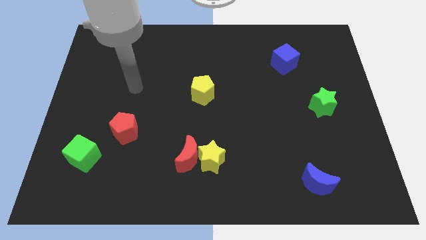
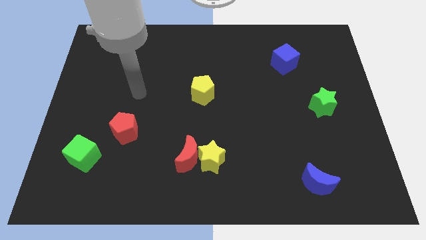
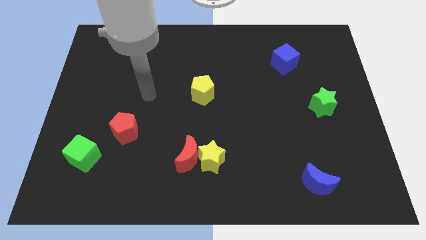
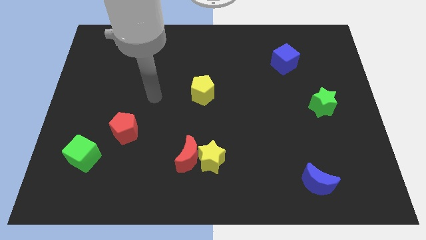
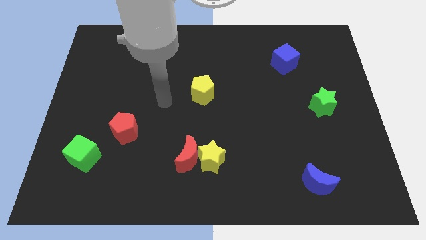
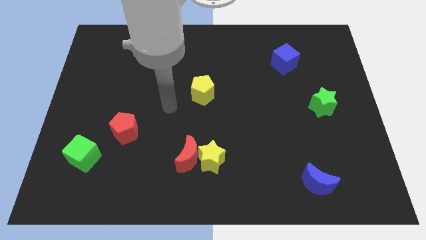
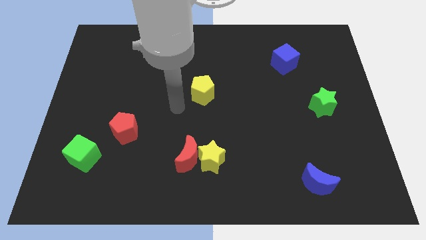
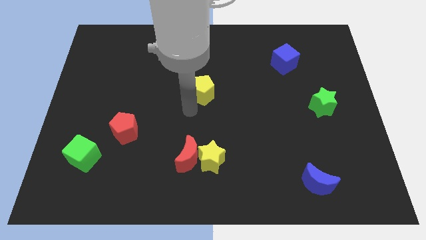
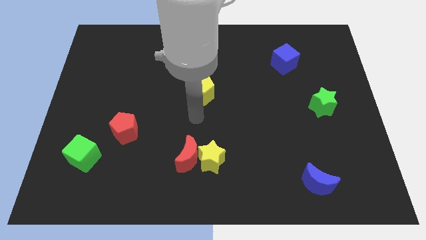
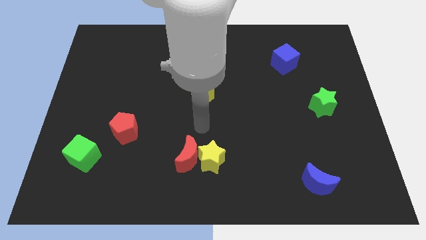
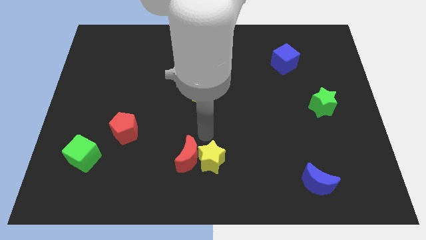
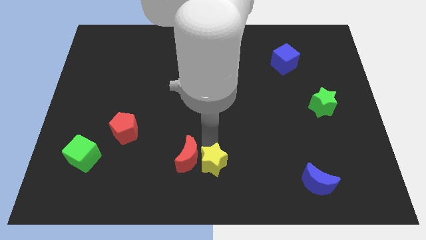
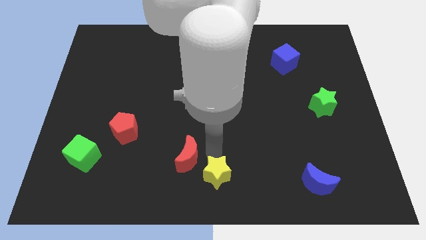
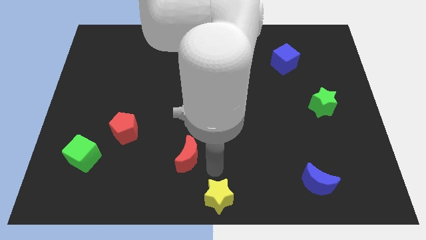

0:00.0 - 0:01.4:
separate the red moon from the yellow star

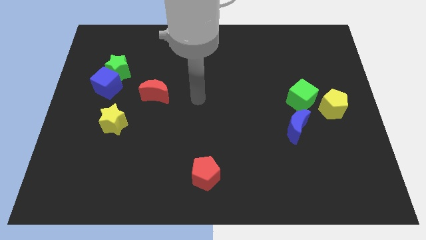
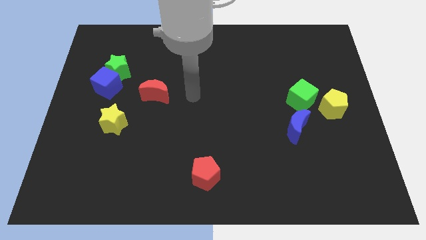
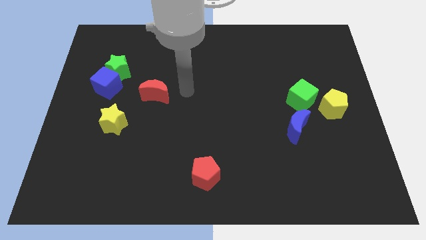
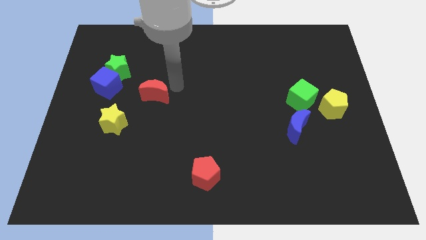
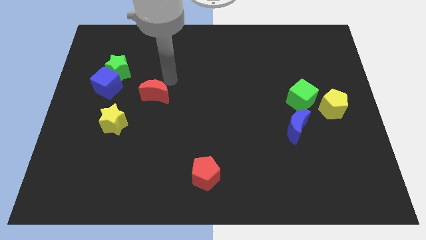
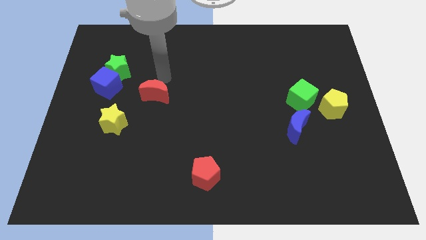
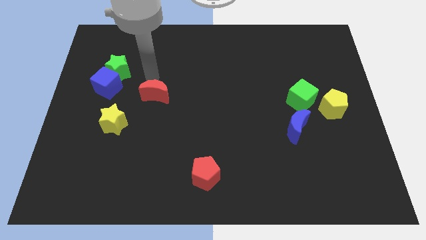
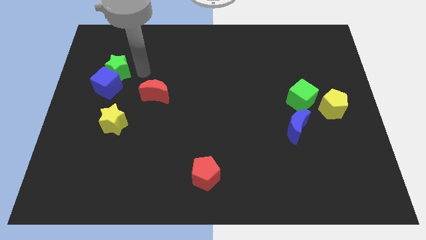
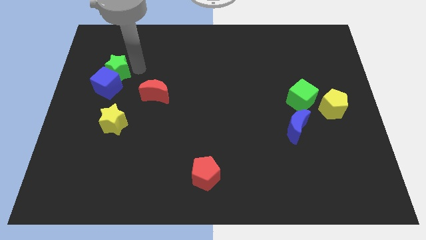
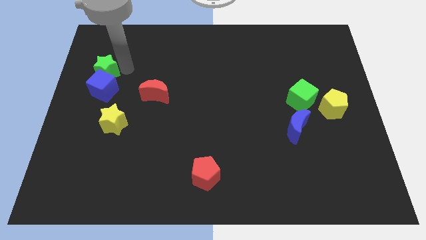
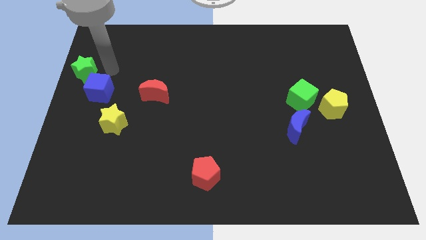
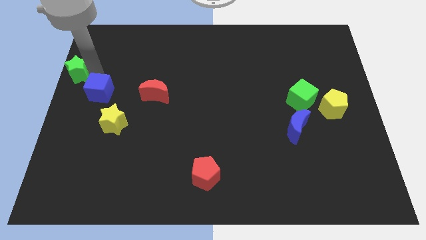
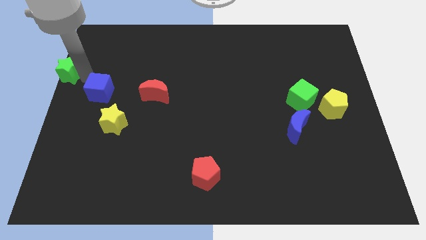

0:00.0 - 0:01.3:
pull the blue cube apart from the green star

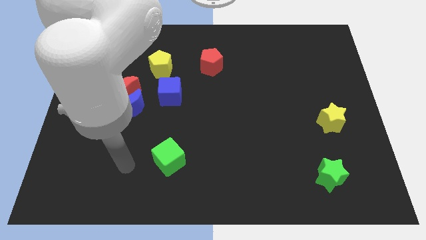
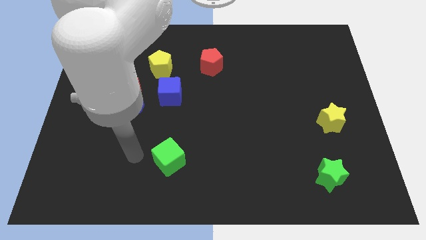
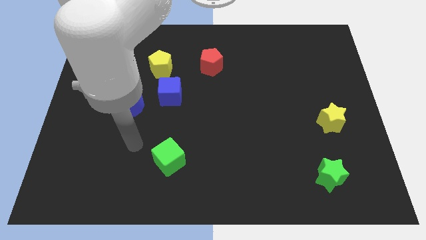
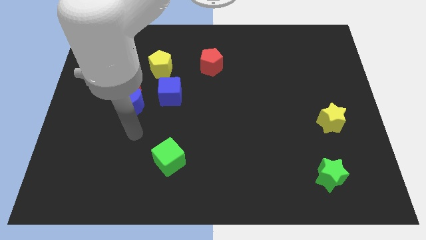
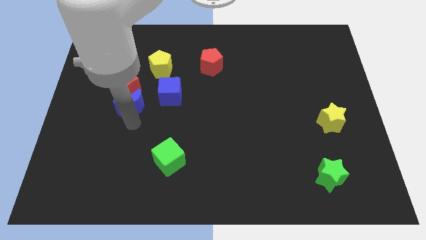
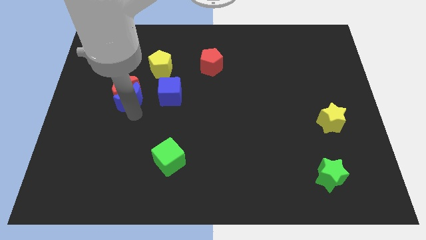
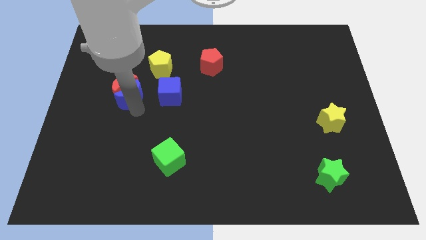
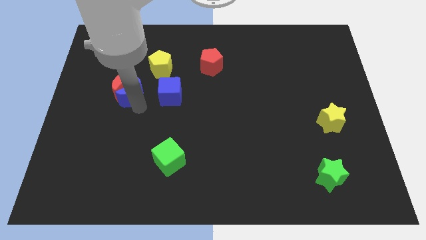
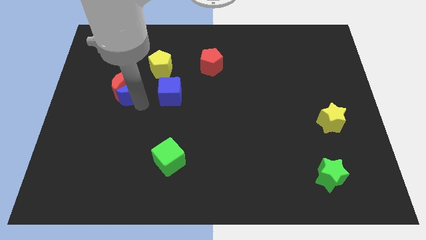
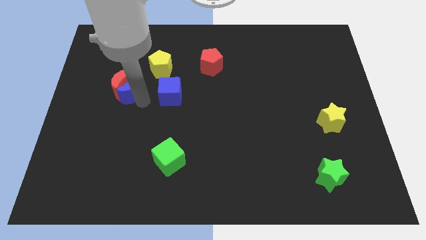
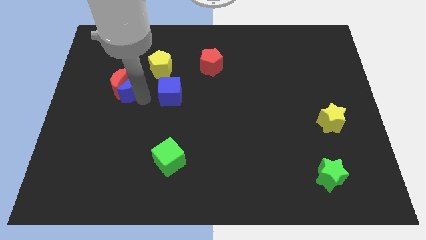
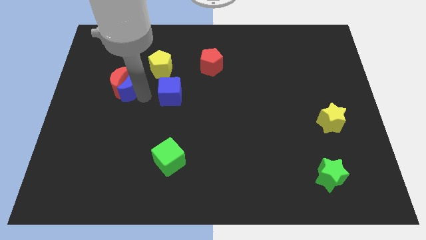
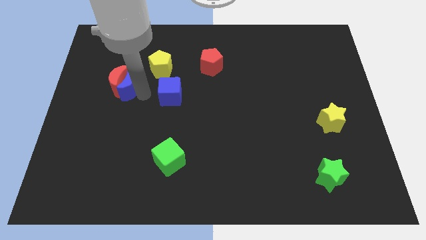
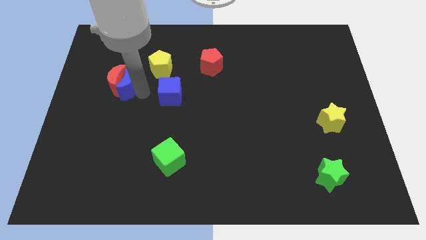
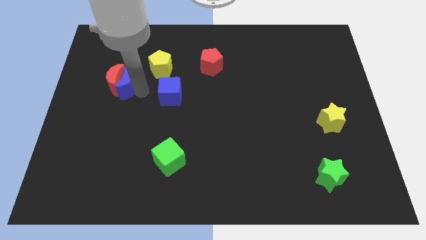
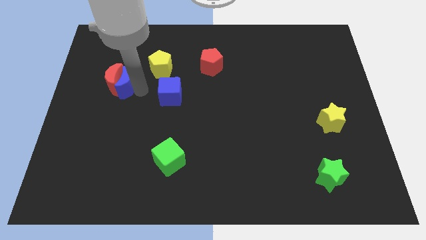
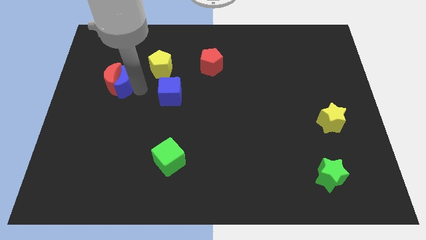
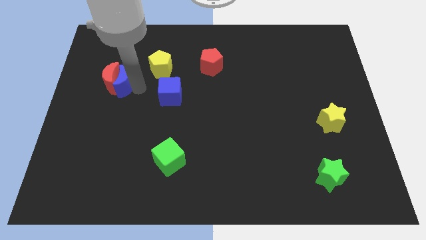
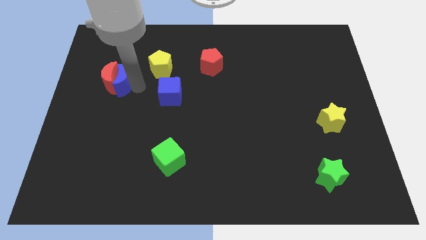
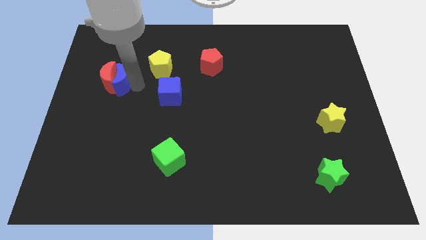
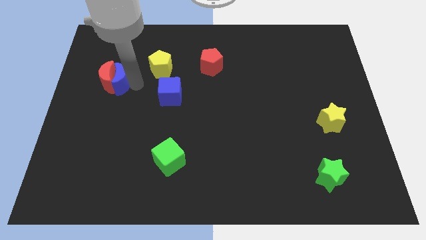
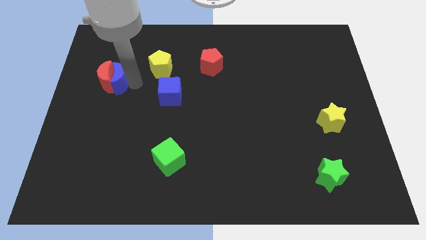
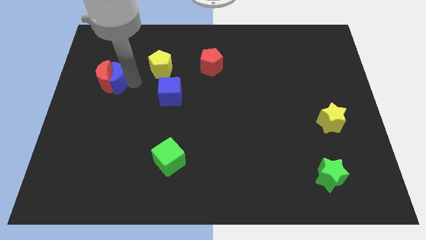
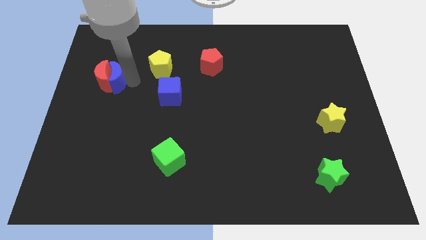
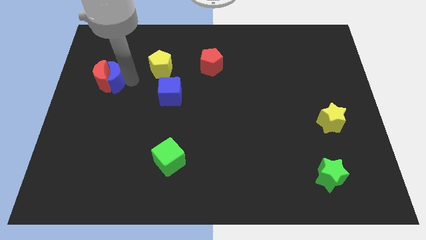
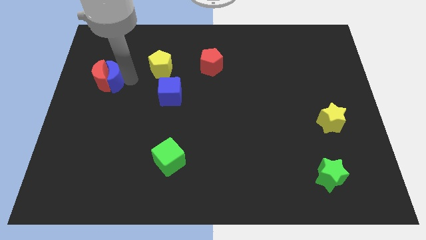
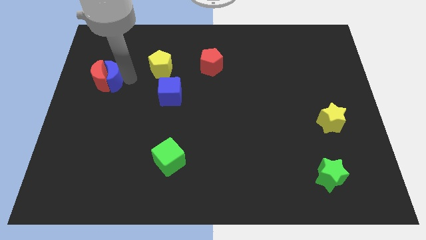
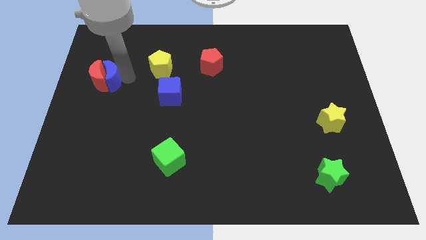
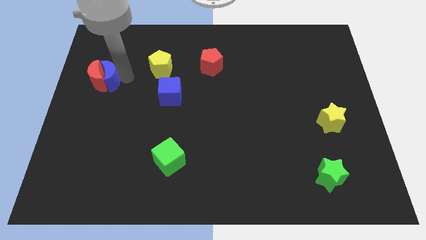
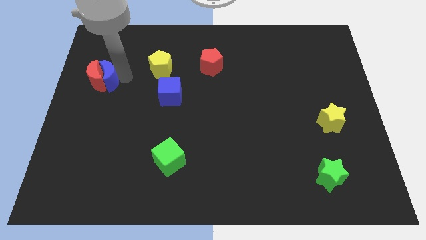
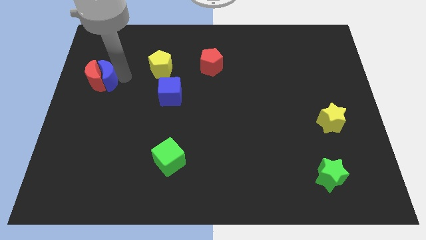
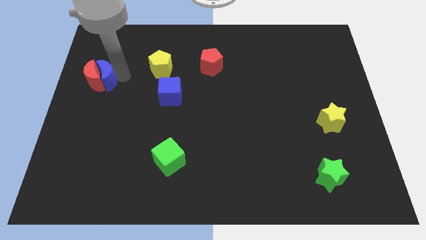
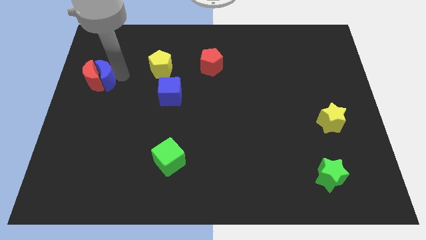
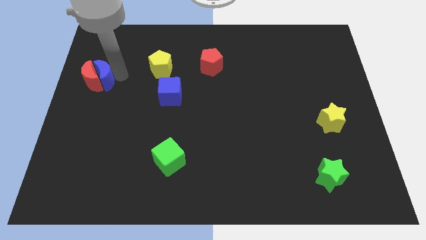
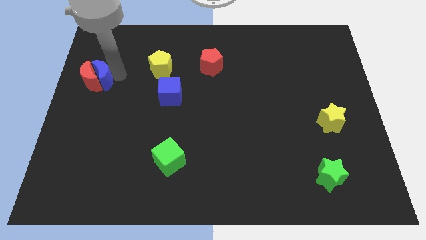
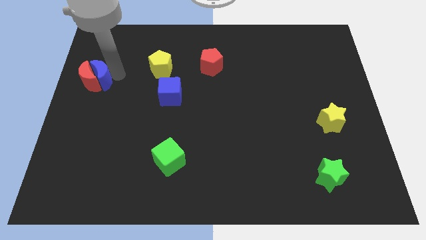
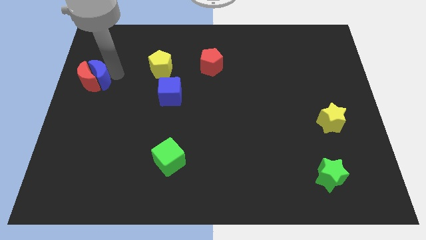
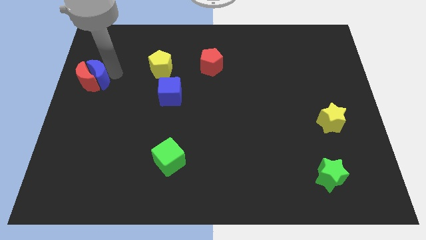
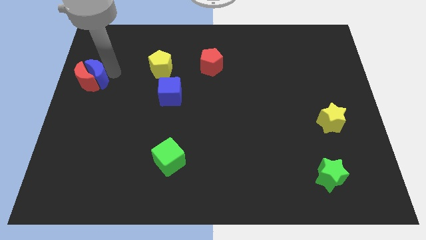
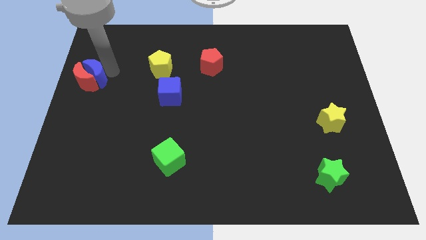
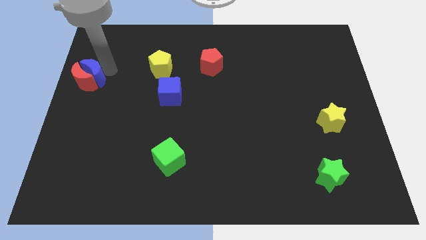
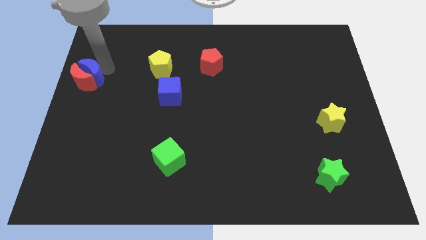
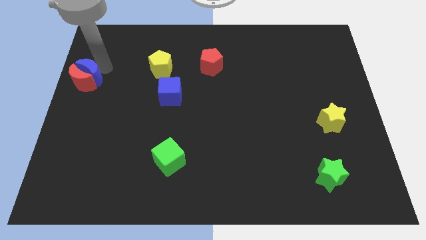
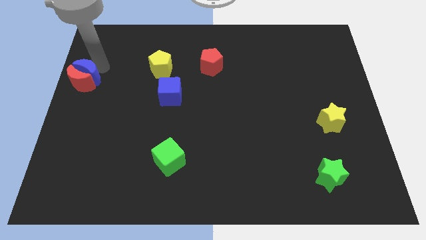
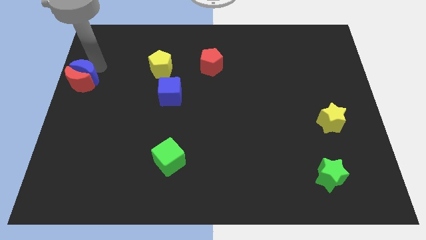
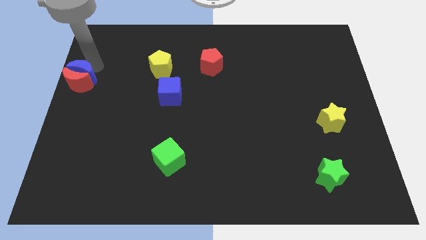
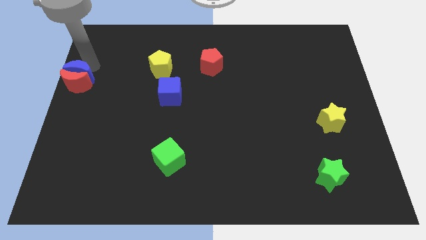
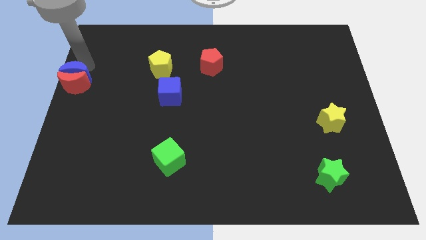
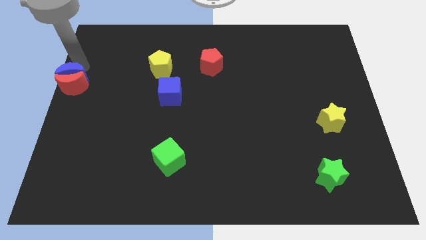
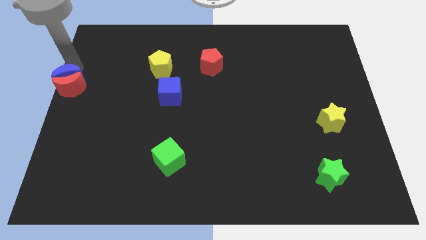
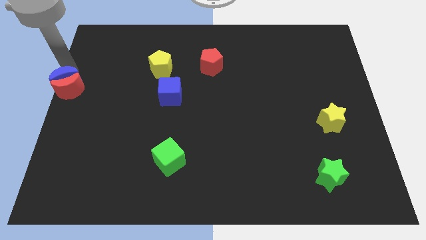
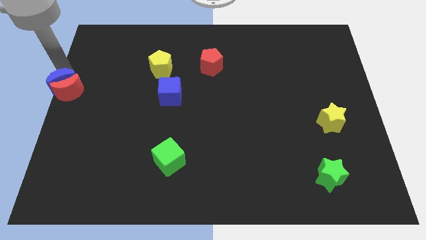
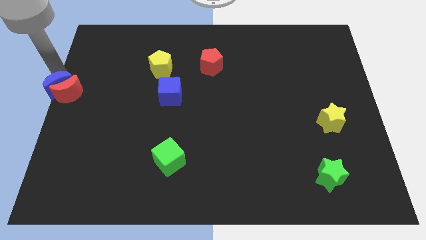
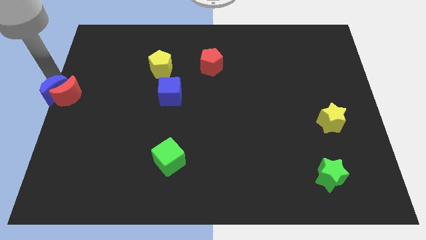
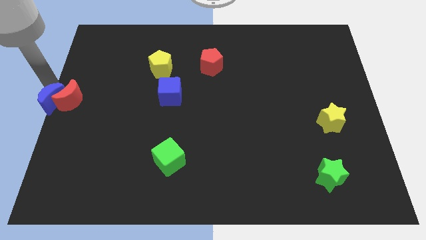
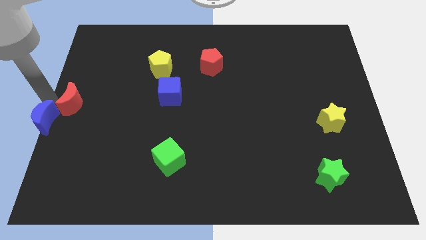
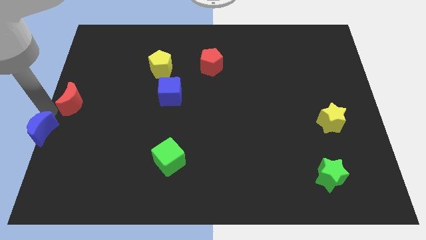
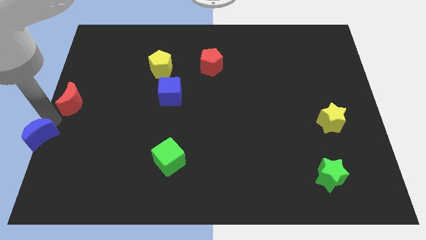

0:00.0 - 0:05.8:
separate the red moon from the blue moon

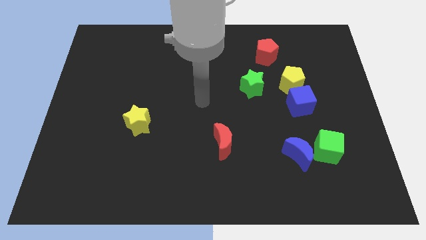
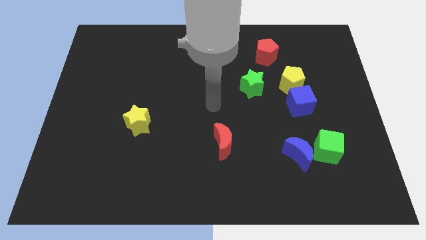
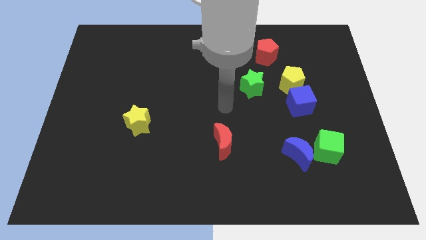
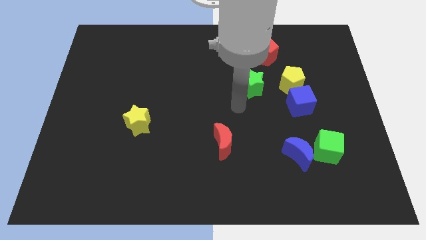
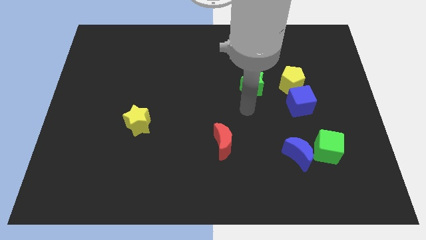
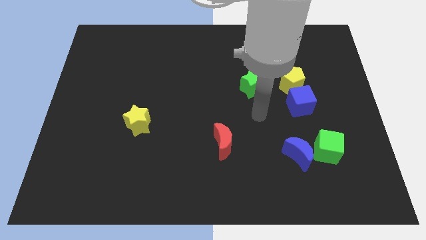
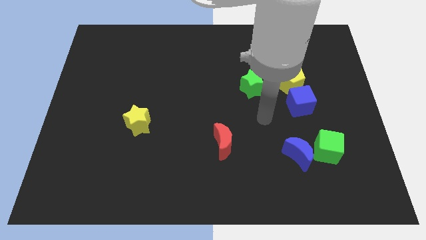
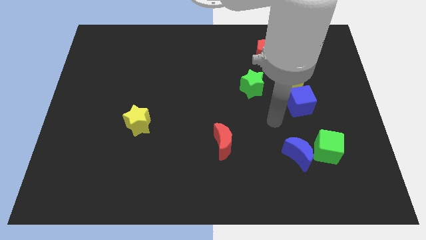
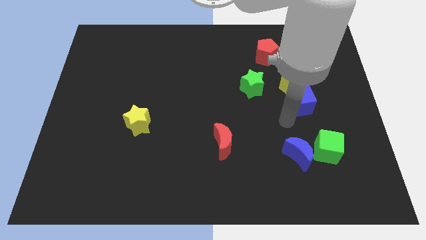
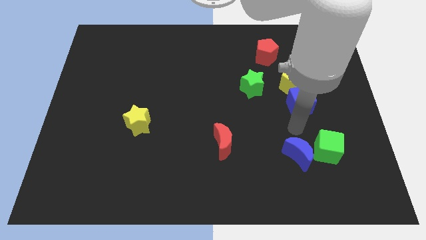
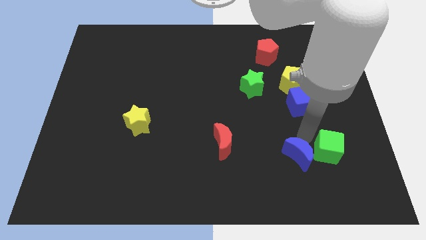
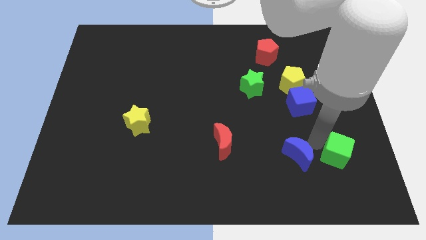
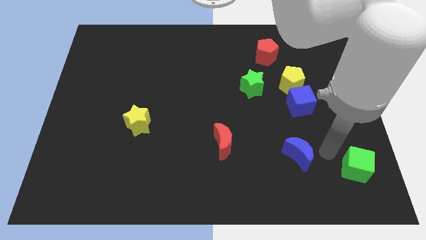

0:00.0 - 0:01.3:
pull the blue moon apart from the green cube
